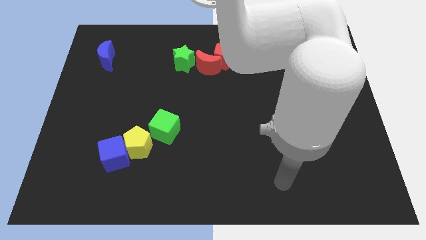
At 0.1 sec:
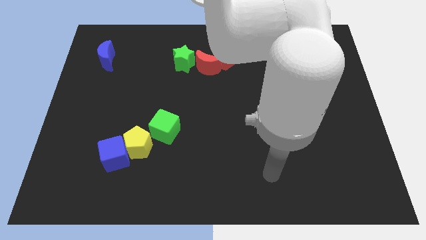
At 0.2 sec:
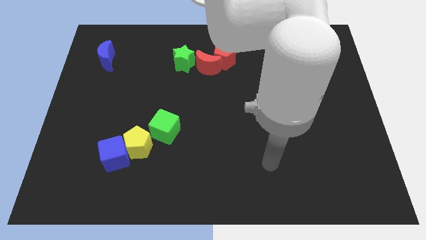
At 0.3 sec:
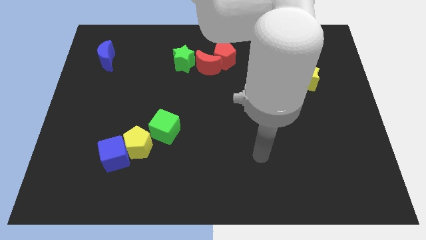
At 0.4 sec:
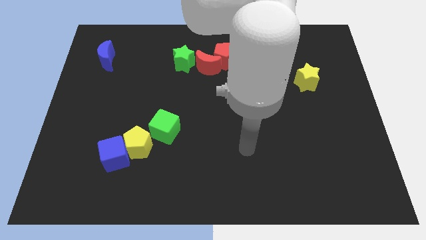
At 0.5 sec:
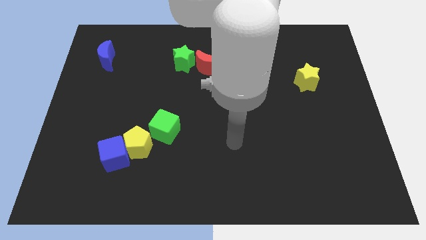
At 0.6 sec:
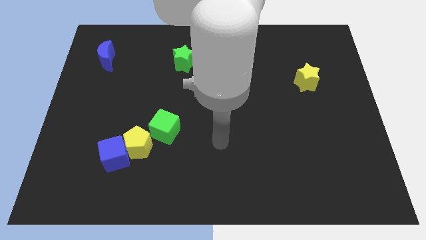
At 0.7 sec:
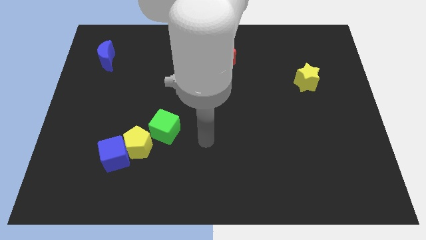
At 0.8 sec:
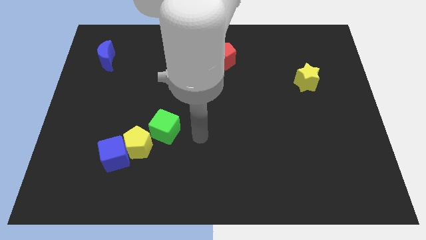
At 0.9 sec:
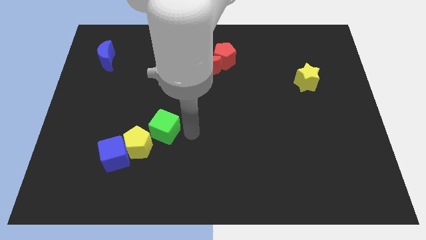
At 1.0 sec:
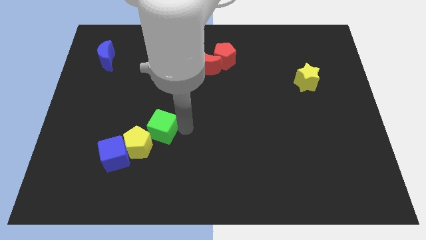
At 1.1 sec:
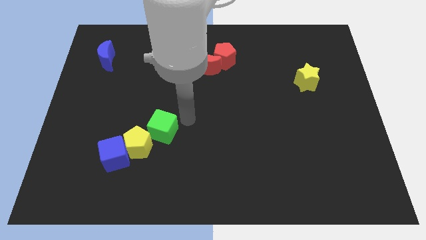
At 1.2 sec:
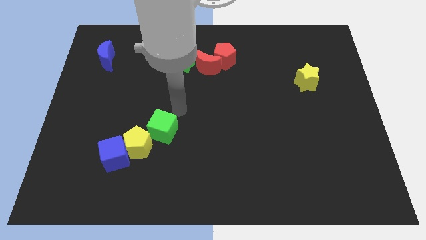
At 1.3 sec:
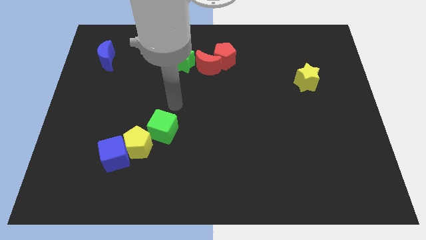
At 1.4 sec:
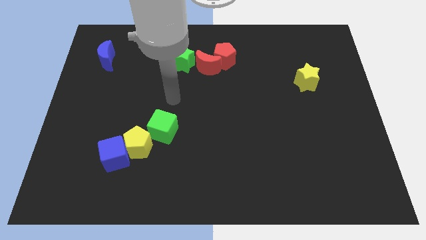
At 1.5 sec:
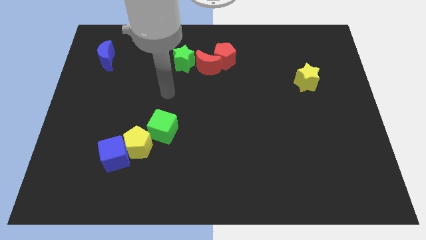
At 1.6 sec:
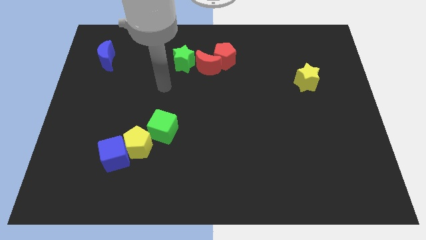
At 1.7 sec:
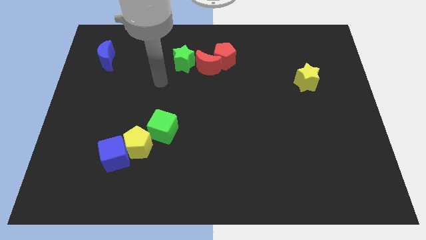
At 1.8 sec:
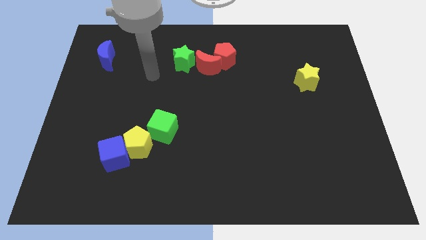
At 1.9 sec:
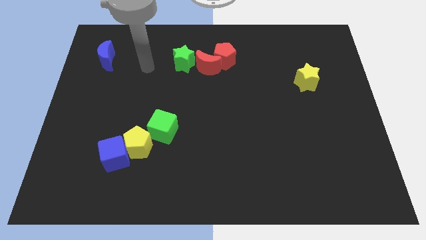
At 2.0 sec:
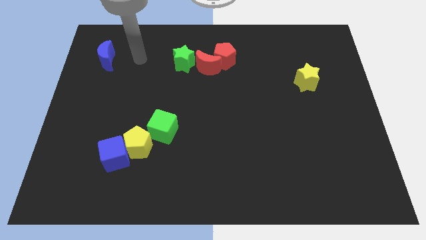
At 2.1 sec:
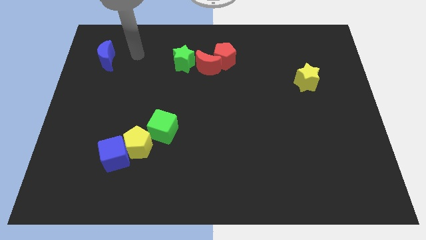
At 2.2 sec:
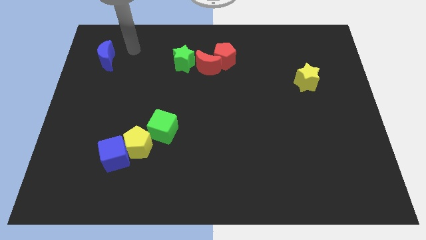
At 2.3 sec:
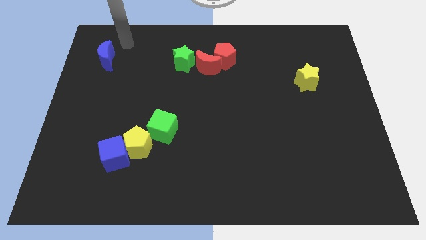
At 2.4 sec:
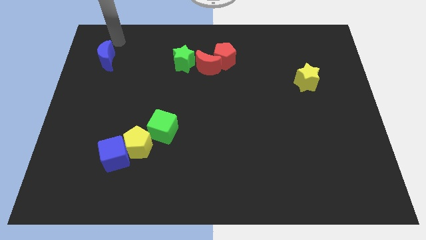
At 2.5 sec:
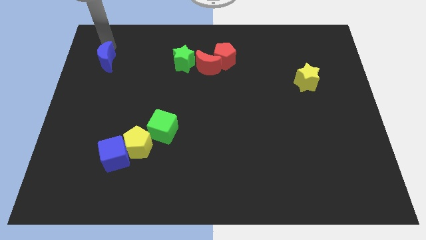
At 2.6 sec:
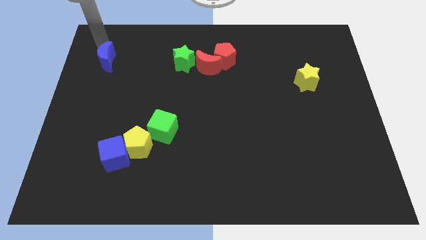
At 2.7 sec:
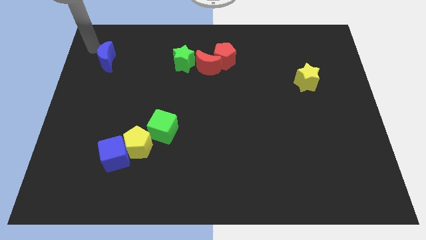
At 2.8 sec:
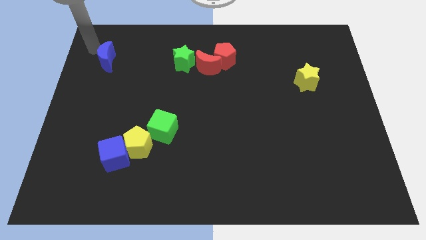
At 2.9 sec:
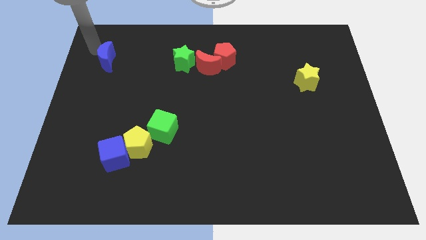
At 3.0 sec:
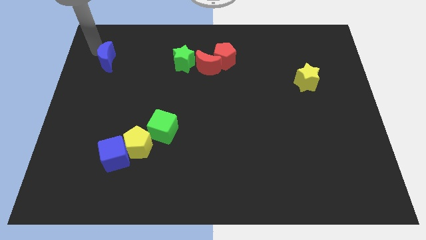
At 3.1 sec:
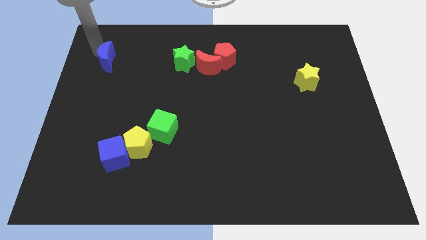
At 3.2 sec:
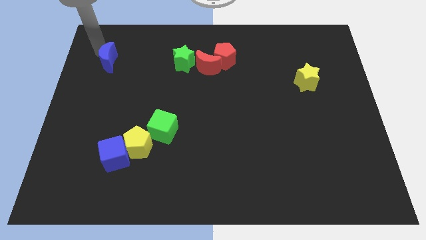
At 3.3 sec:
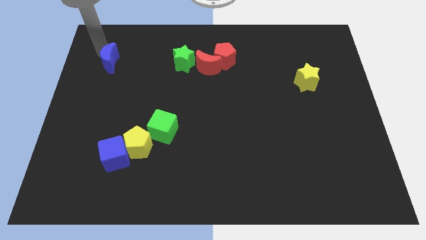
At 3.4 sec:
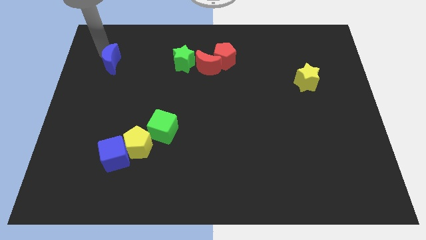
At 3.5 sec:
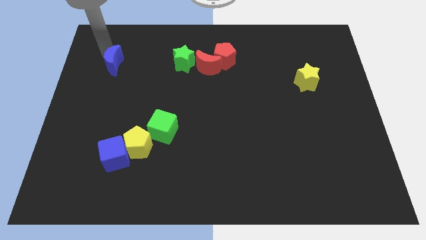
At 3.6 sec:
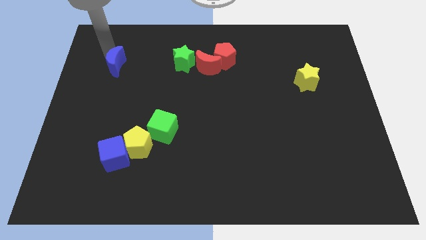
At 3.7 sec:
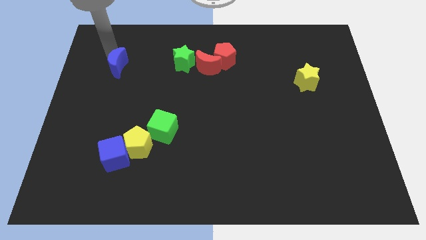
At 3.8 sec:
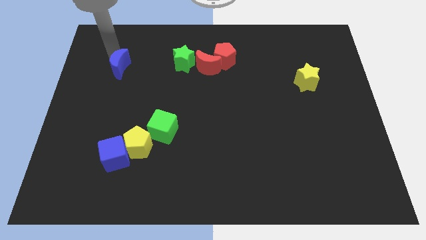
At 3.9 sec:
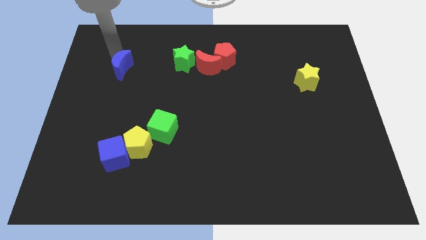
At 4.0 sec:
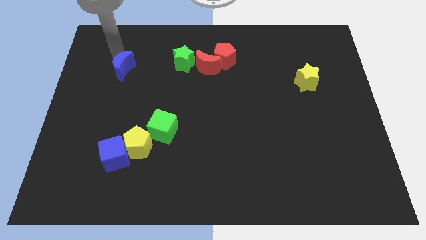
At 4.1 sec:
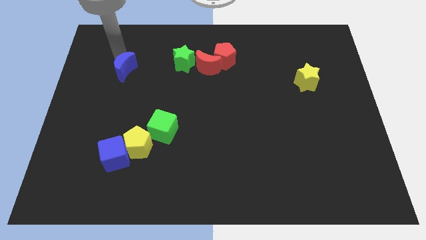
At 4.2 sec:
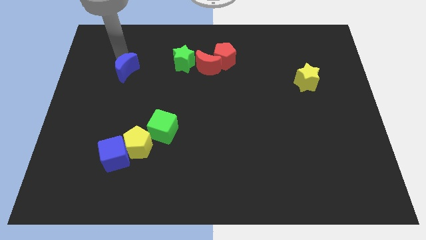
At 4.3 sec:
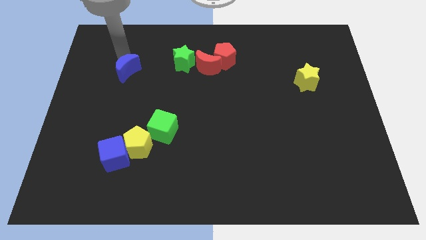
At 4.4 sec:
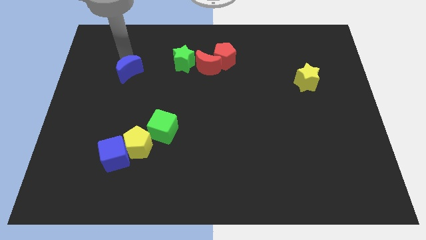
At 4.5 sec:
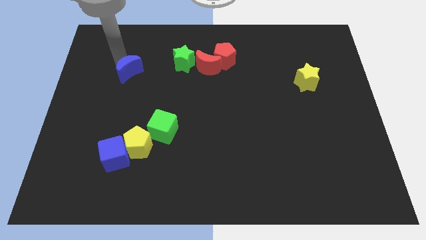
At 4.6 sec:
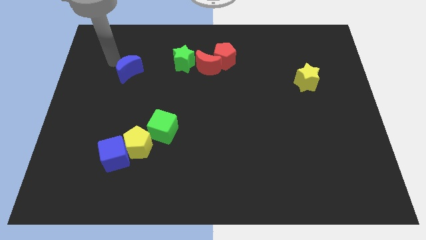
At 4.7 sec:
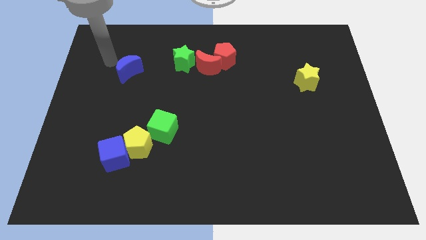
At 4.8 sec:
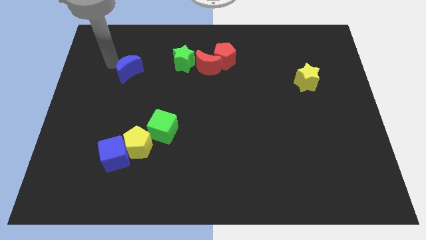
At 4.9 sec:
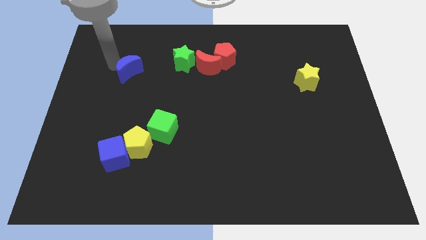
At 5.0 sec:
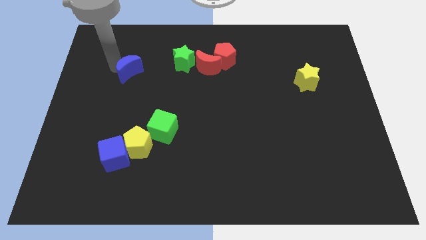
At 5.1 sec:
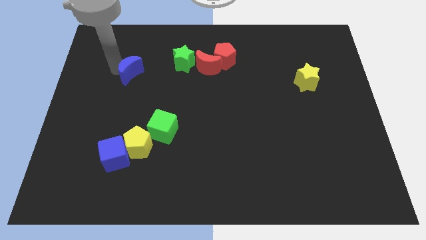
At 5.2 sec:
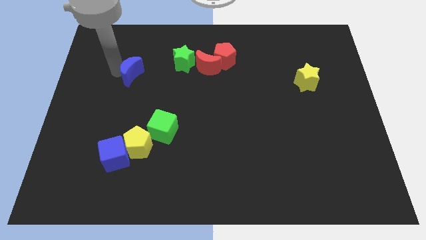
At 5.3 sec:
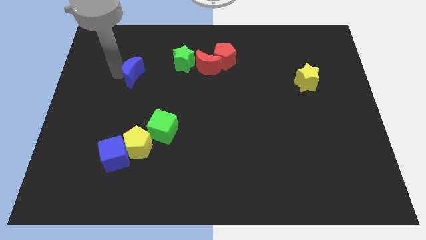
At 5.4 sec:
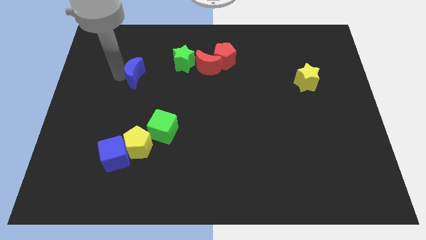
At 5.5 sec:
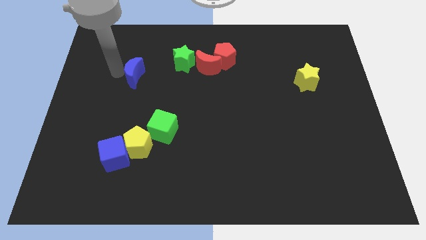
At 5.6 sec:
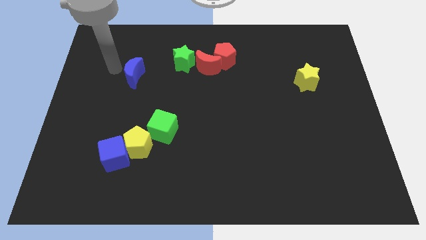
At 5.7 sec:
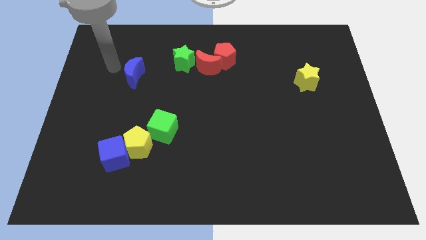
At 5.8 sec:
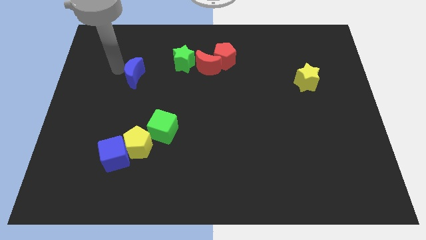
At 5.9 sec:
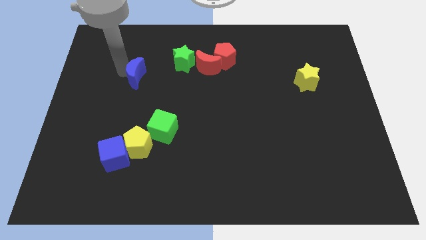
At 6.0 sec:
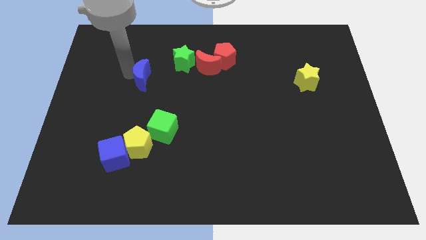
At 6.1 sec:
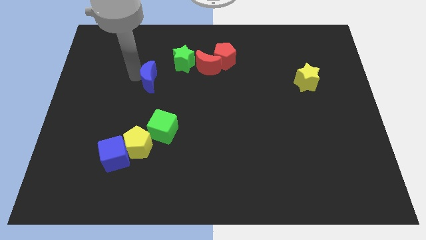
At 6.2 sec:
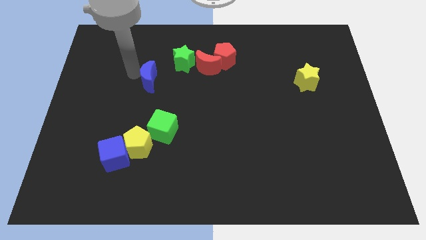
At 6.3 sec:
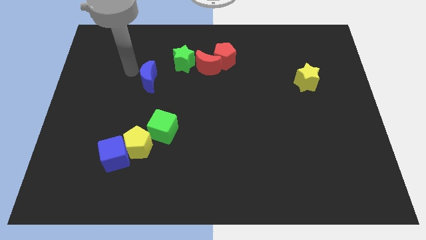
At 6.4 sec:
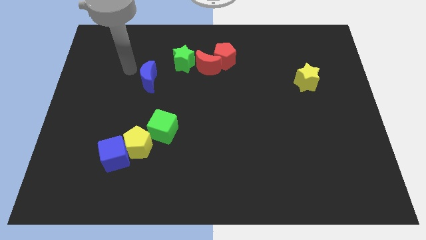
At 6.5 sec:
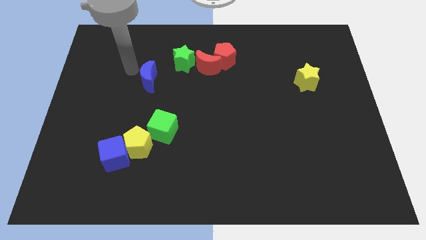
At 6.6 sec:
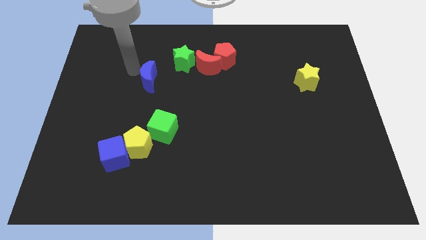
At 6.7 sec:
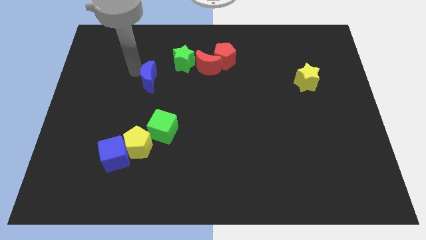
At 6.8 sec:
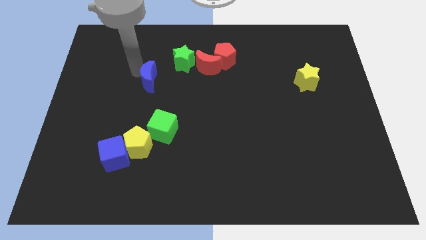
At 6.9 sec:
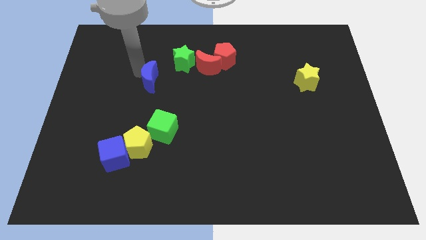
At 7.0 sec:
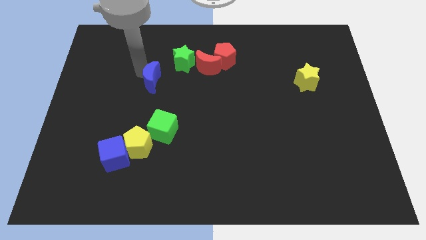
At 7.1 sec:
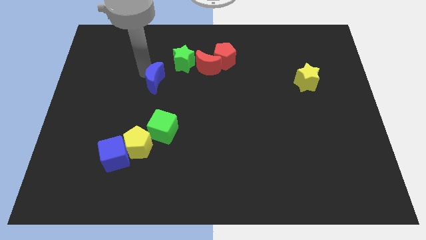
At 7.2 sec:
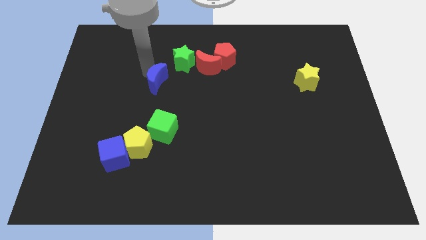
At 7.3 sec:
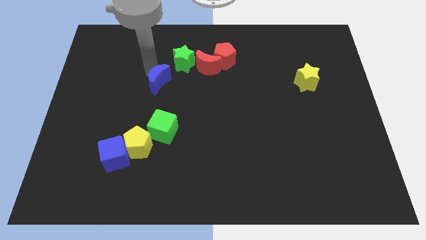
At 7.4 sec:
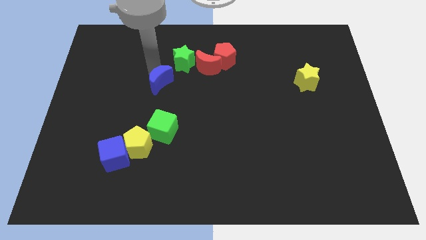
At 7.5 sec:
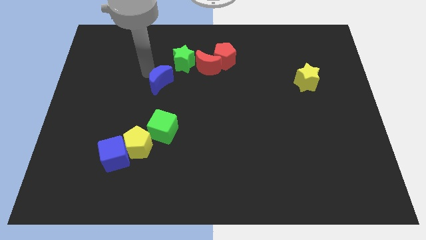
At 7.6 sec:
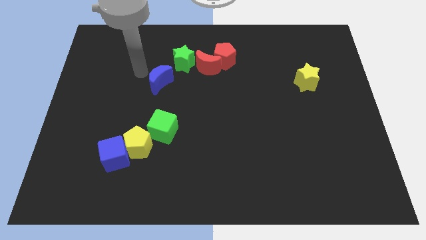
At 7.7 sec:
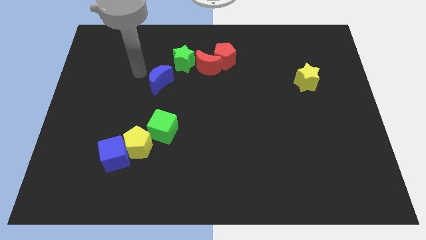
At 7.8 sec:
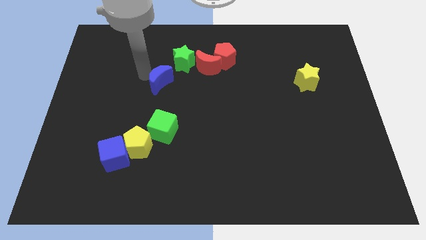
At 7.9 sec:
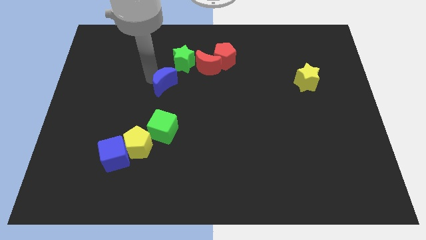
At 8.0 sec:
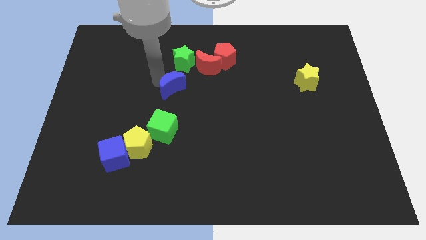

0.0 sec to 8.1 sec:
push the blue moon to the middle
